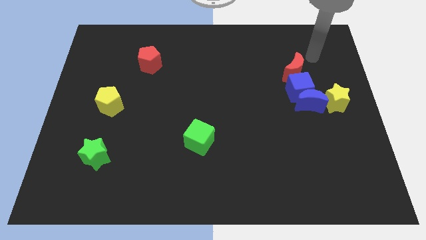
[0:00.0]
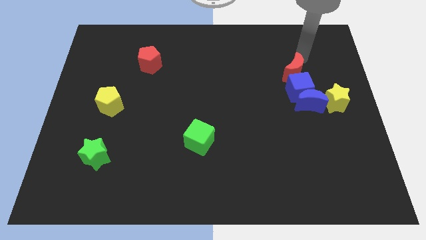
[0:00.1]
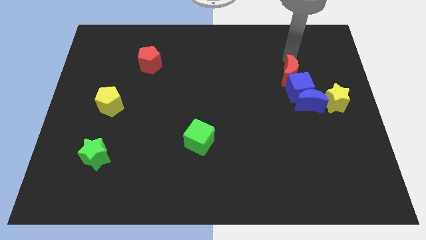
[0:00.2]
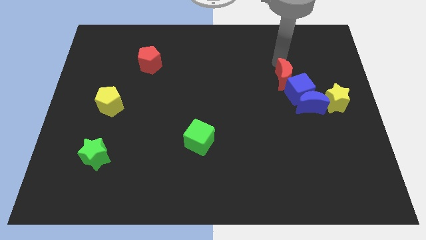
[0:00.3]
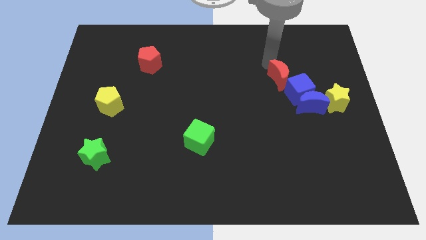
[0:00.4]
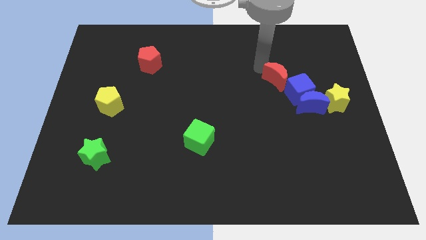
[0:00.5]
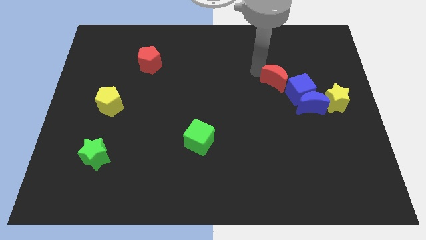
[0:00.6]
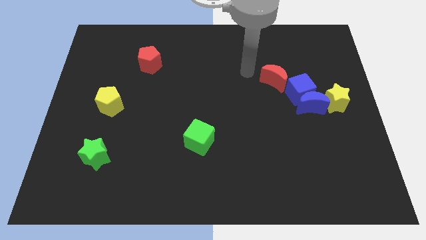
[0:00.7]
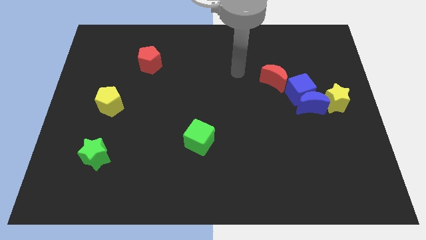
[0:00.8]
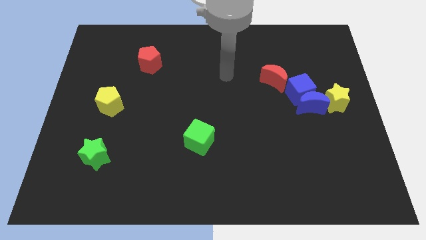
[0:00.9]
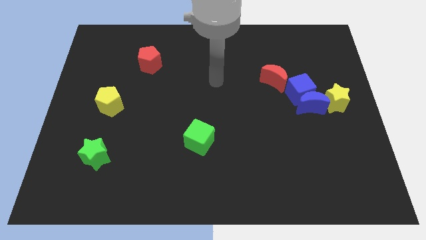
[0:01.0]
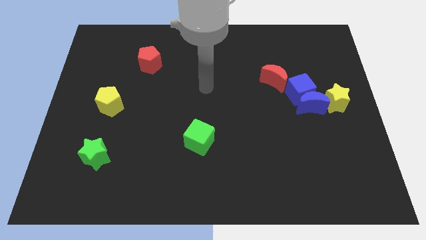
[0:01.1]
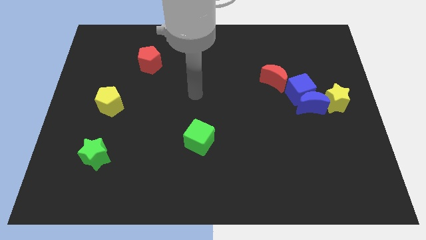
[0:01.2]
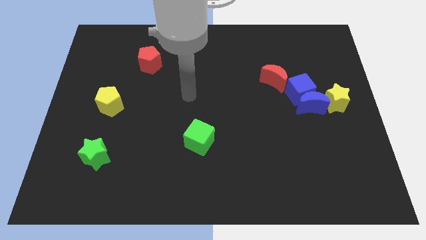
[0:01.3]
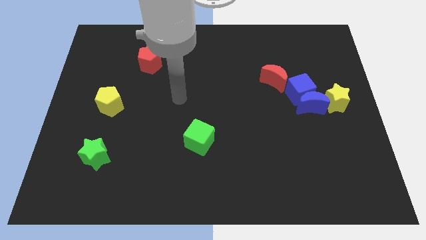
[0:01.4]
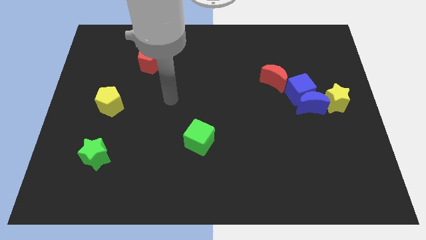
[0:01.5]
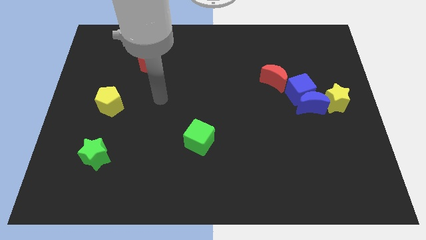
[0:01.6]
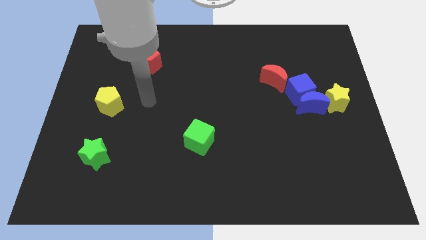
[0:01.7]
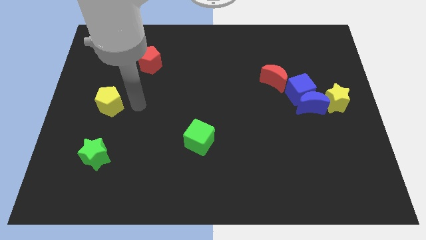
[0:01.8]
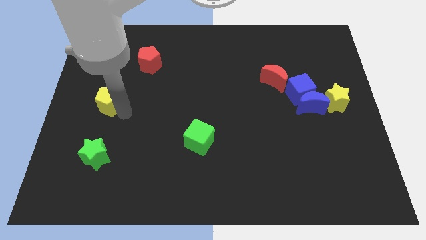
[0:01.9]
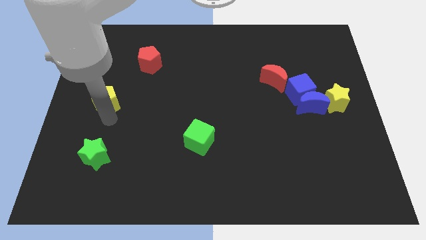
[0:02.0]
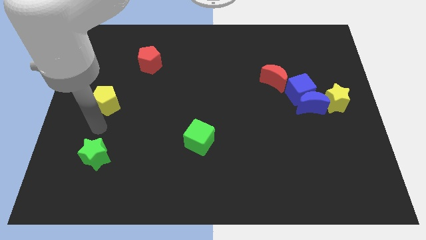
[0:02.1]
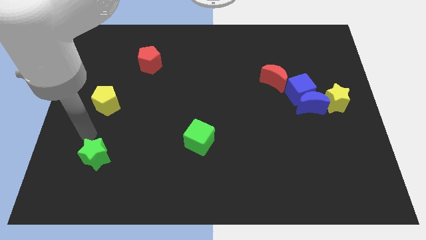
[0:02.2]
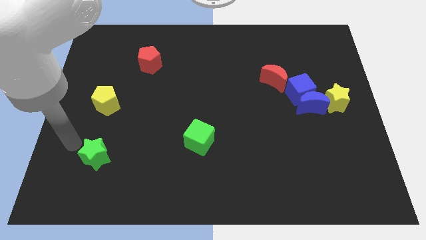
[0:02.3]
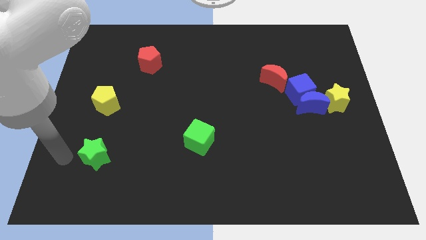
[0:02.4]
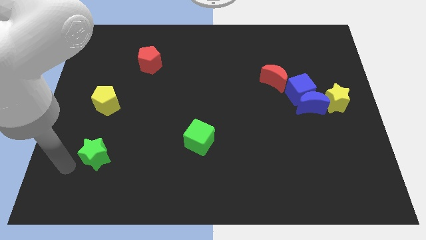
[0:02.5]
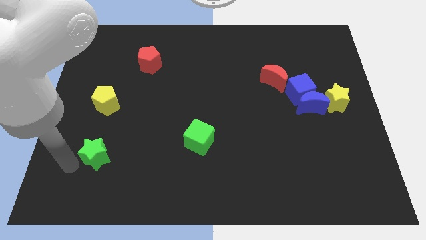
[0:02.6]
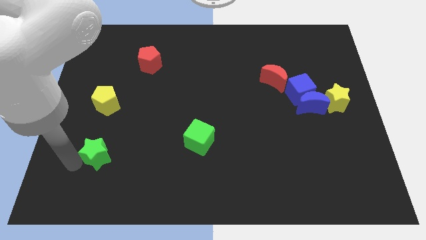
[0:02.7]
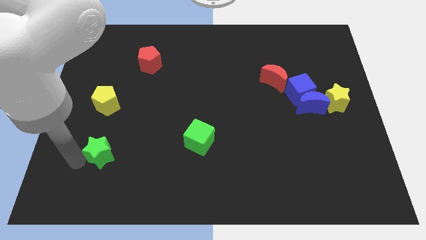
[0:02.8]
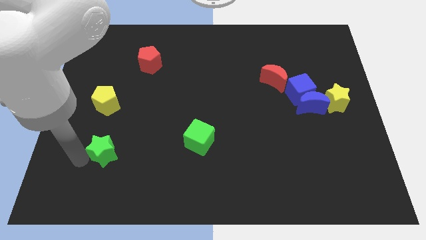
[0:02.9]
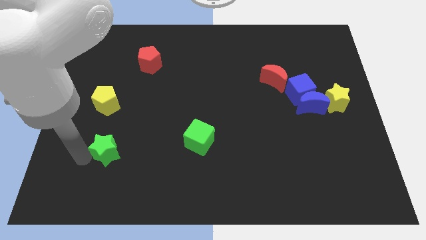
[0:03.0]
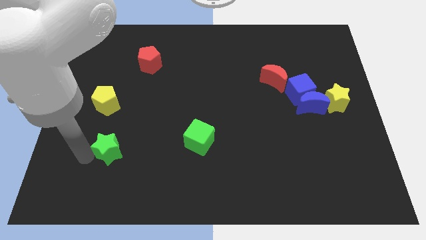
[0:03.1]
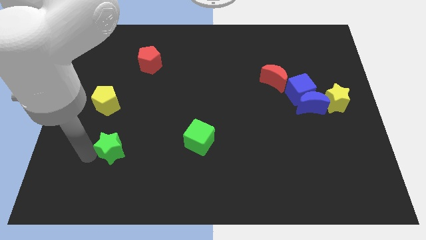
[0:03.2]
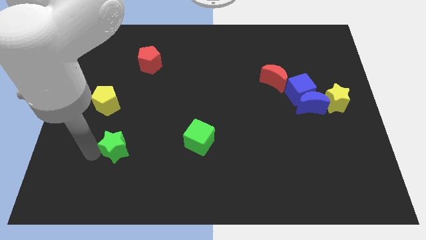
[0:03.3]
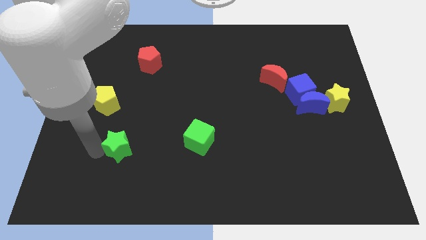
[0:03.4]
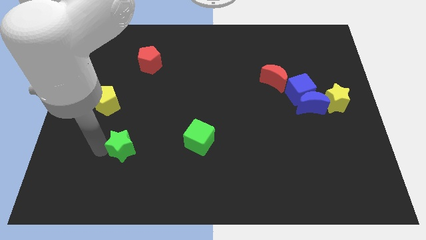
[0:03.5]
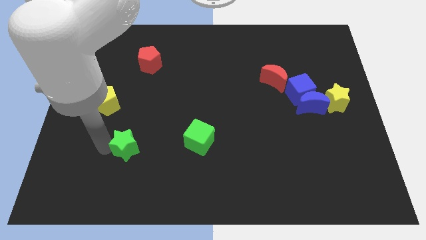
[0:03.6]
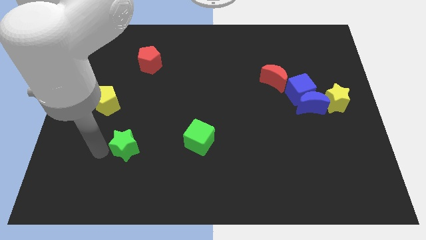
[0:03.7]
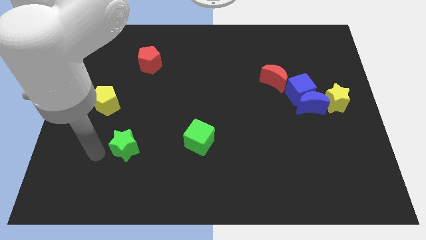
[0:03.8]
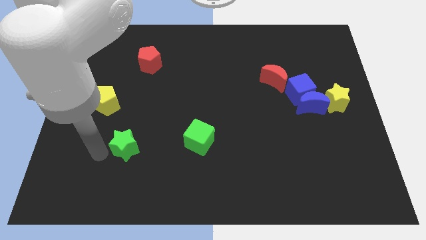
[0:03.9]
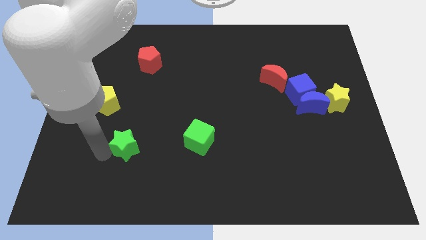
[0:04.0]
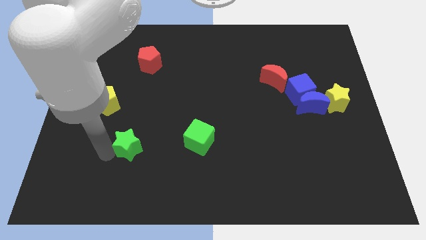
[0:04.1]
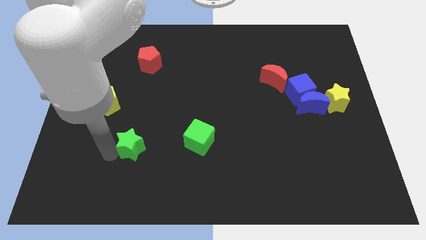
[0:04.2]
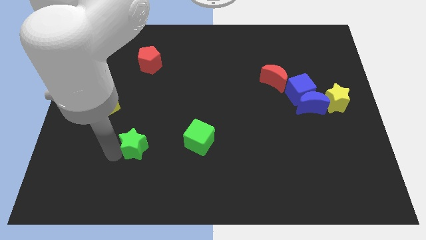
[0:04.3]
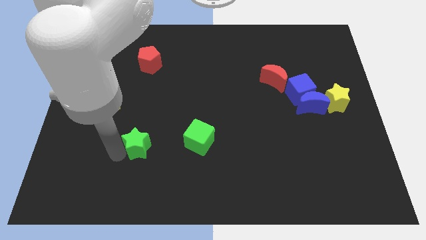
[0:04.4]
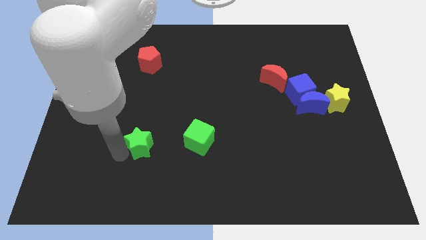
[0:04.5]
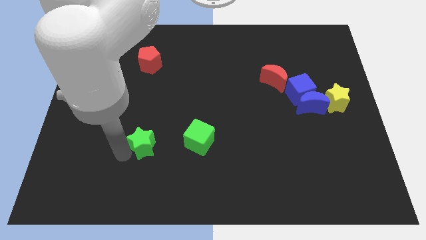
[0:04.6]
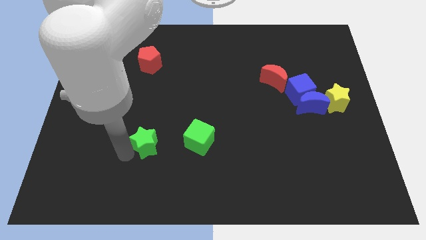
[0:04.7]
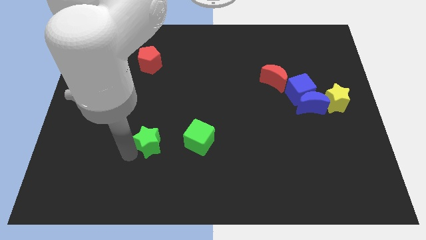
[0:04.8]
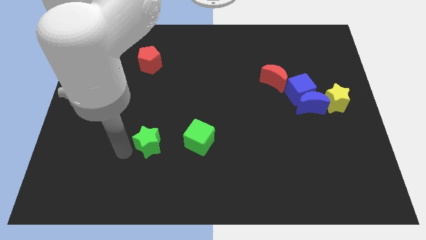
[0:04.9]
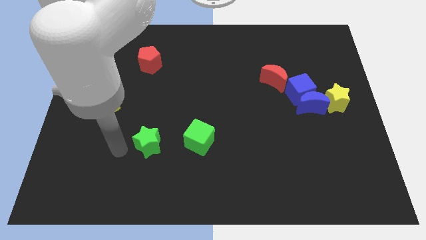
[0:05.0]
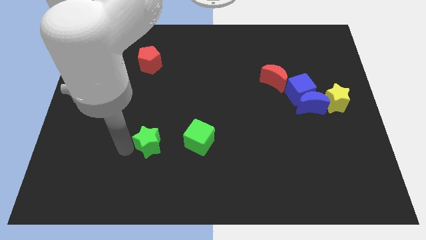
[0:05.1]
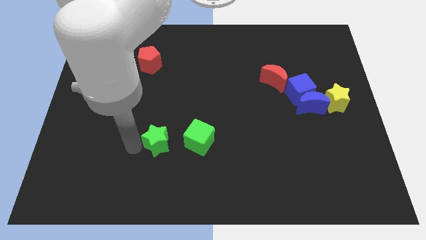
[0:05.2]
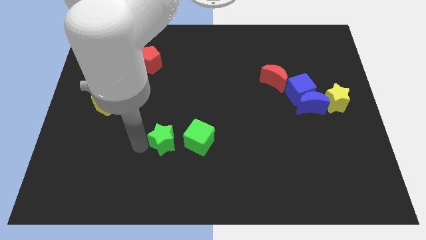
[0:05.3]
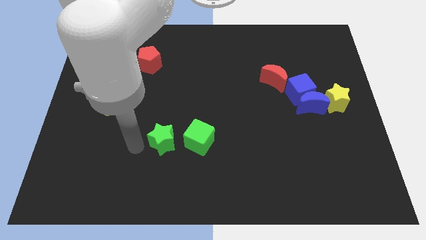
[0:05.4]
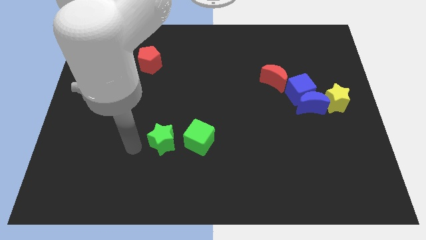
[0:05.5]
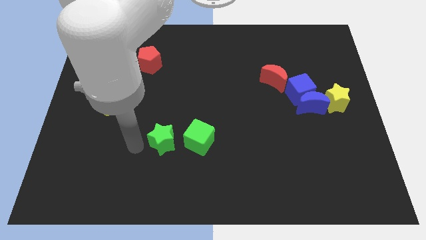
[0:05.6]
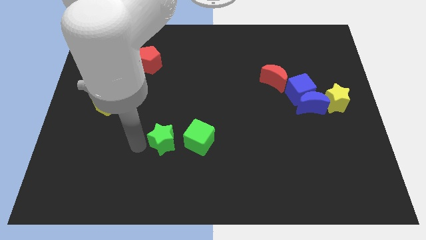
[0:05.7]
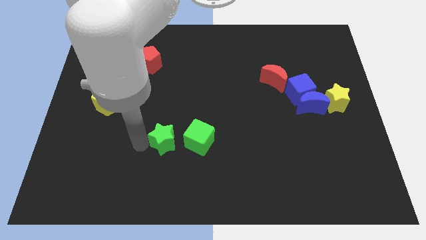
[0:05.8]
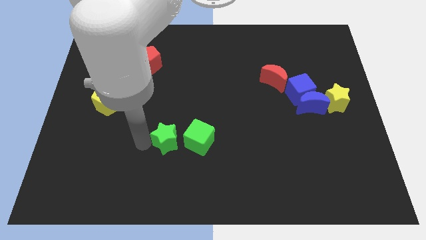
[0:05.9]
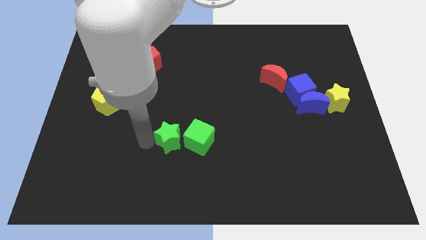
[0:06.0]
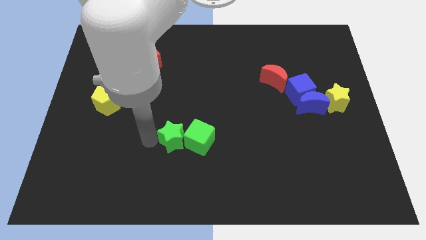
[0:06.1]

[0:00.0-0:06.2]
slide the green star close to the green cube

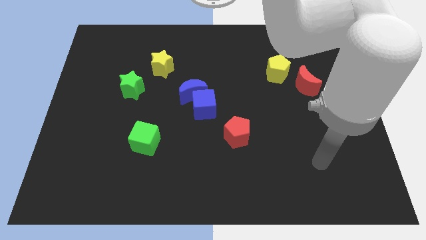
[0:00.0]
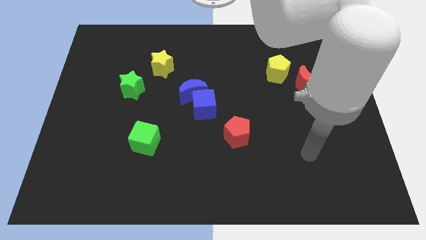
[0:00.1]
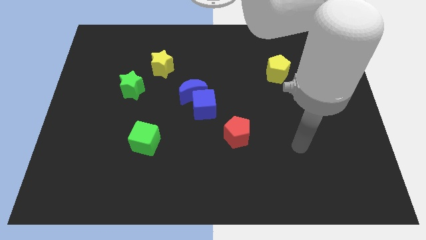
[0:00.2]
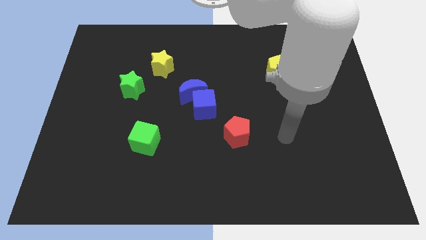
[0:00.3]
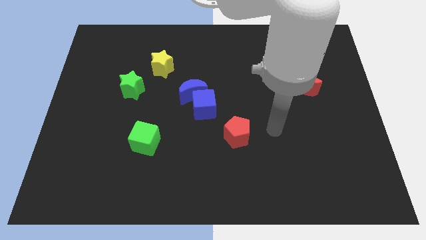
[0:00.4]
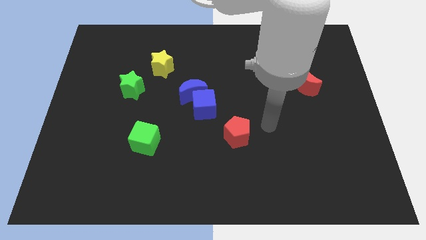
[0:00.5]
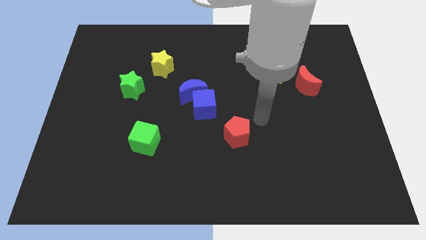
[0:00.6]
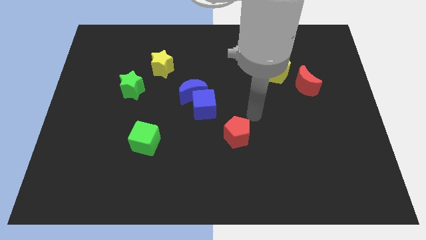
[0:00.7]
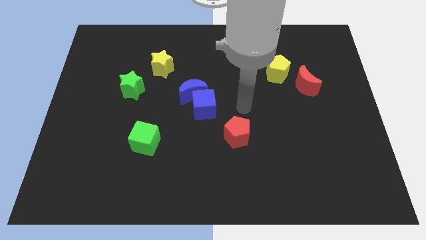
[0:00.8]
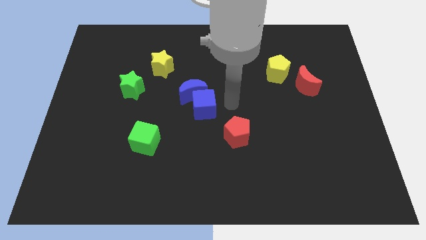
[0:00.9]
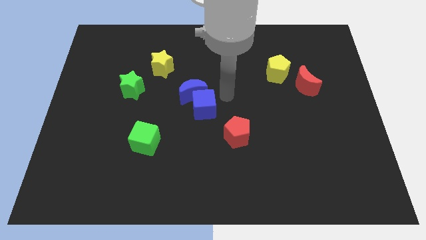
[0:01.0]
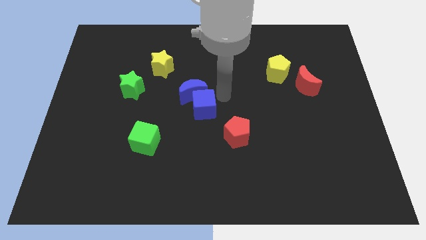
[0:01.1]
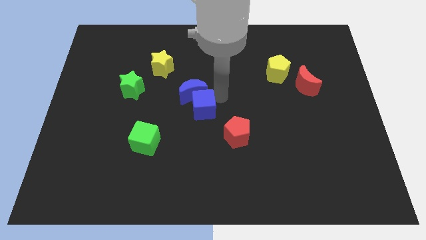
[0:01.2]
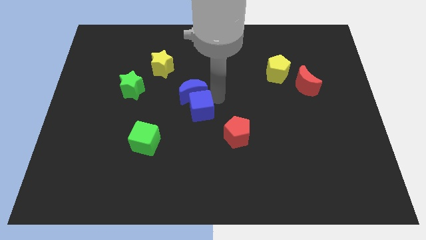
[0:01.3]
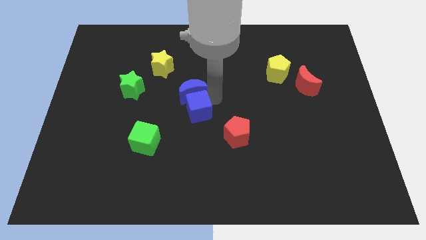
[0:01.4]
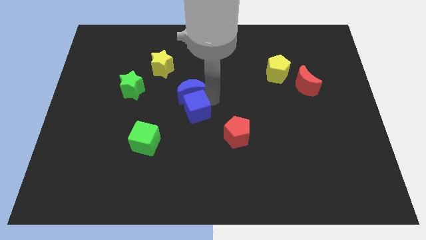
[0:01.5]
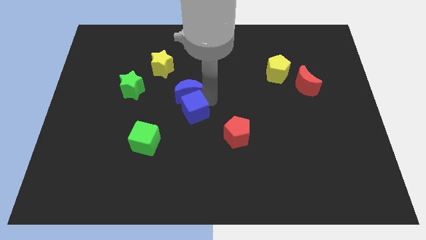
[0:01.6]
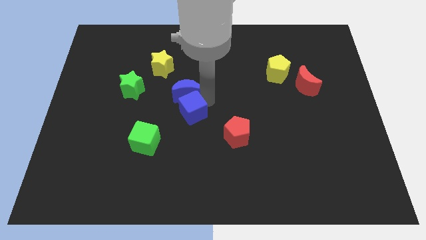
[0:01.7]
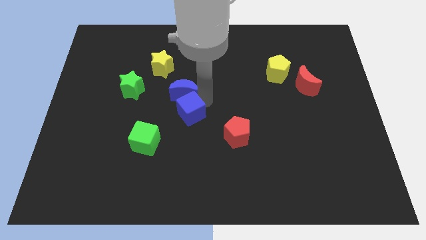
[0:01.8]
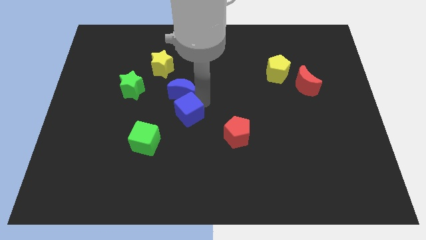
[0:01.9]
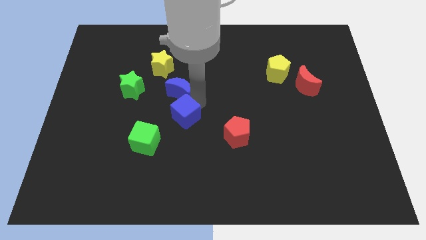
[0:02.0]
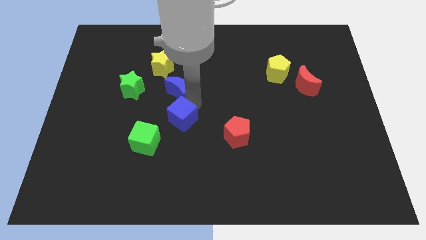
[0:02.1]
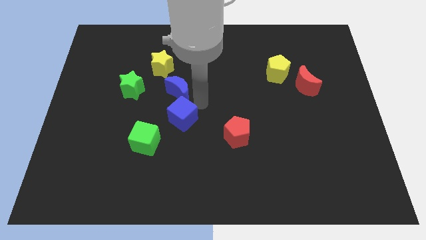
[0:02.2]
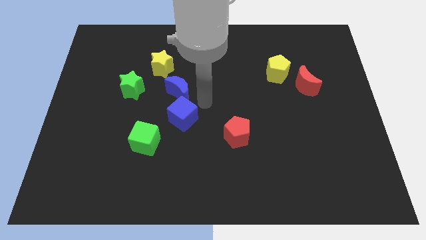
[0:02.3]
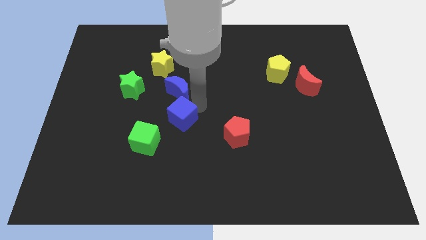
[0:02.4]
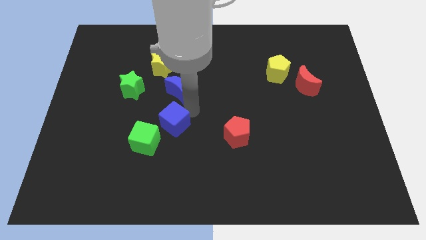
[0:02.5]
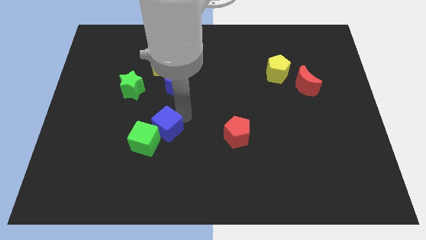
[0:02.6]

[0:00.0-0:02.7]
push the blue cube close to the green cube
